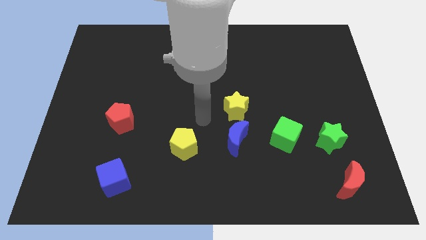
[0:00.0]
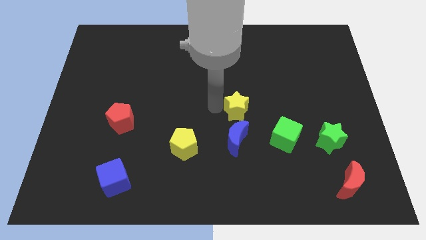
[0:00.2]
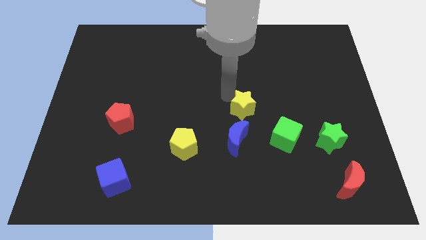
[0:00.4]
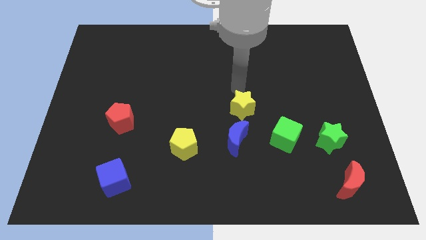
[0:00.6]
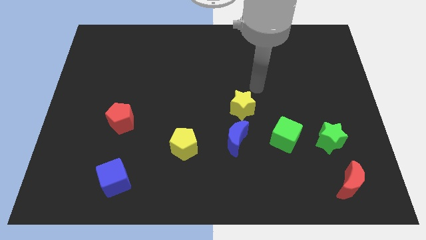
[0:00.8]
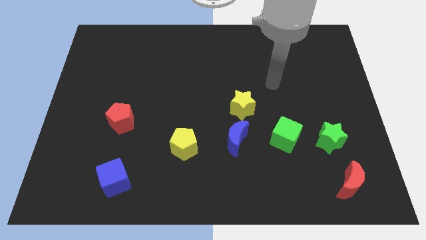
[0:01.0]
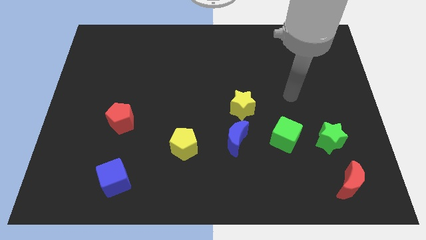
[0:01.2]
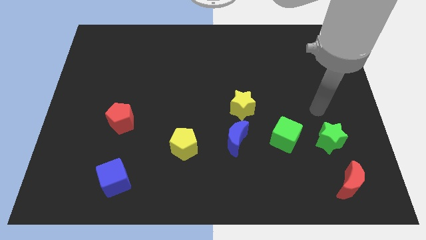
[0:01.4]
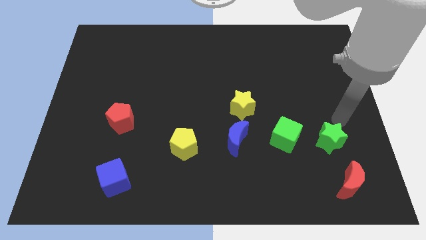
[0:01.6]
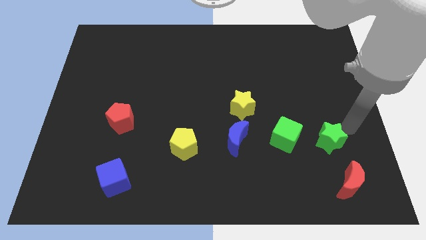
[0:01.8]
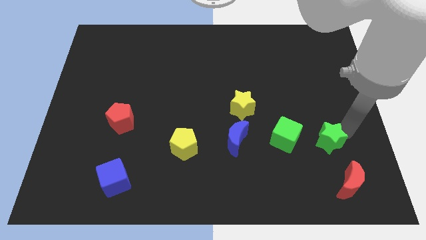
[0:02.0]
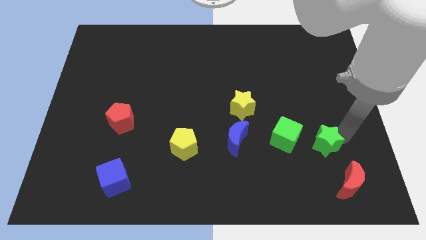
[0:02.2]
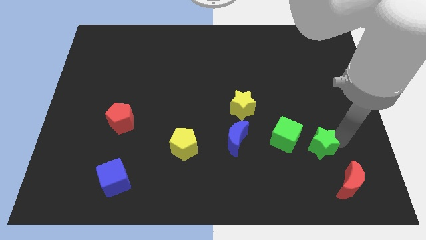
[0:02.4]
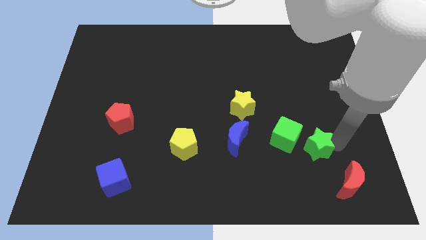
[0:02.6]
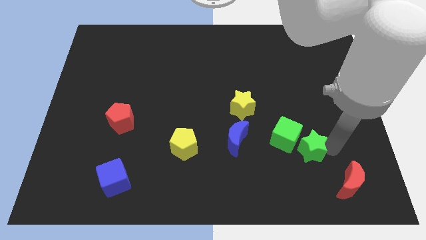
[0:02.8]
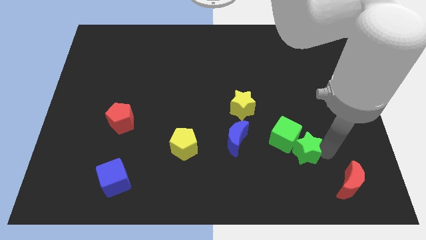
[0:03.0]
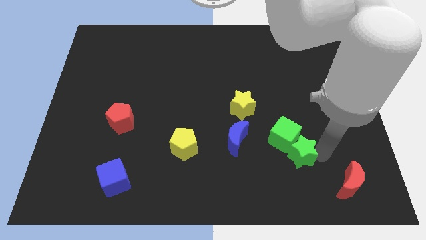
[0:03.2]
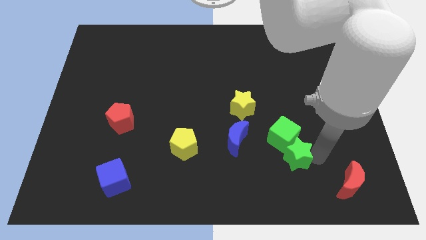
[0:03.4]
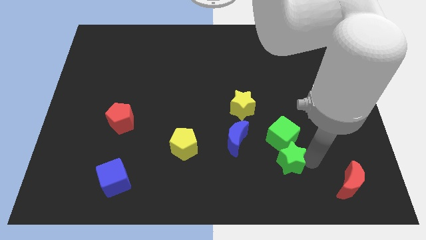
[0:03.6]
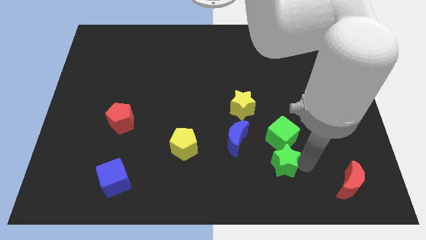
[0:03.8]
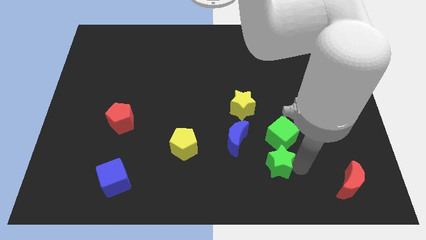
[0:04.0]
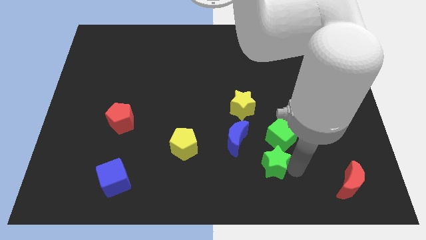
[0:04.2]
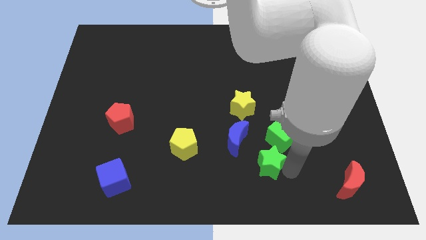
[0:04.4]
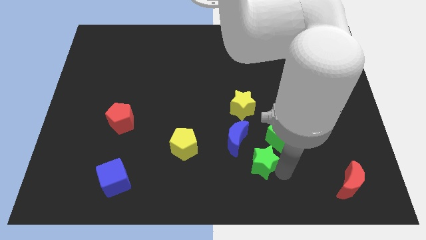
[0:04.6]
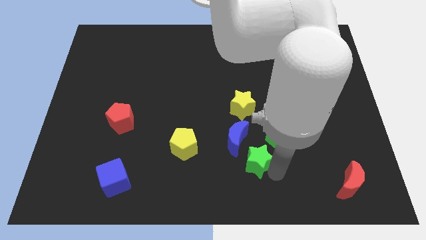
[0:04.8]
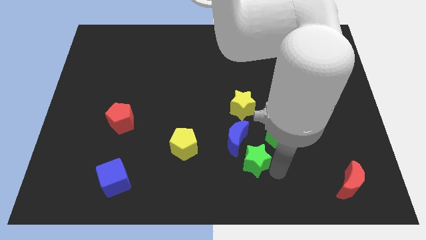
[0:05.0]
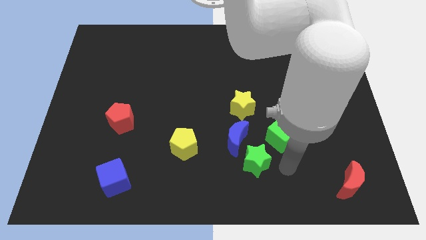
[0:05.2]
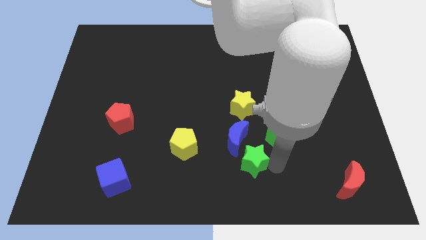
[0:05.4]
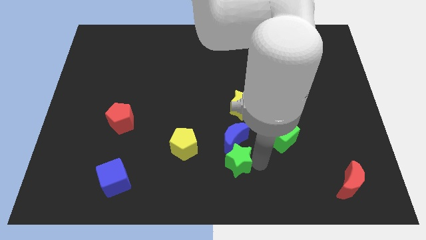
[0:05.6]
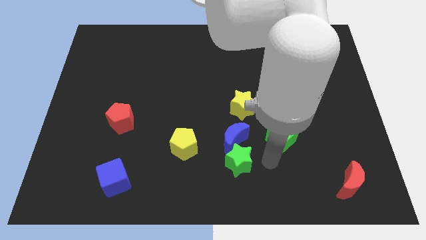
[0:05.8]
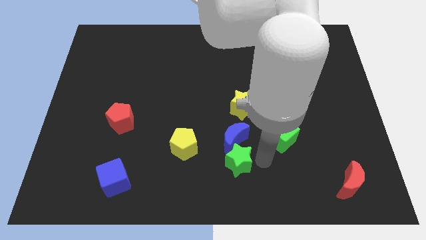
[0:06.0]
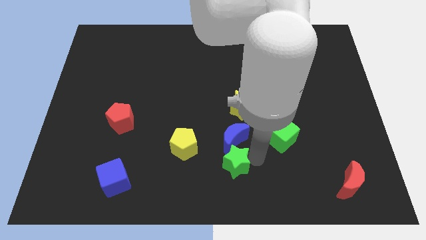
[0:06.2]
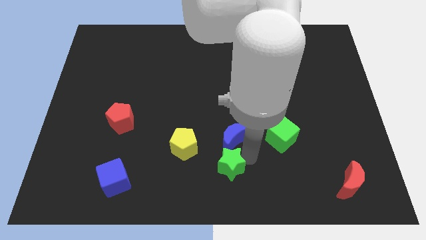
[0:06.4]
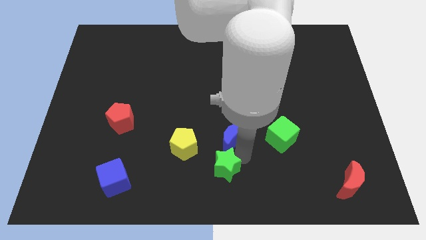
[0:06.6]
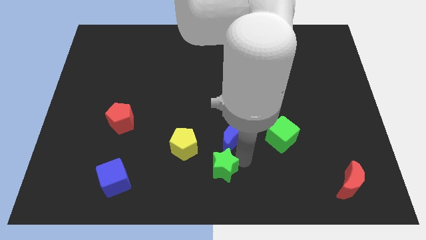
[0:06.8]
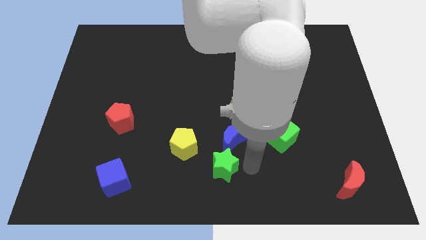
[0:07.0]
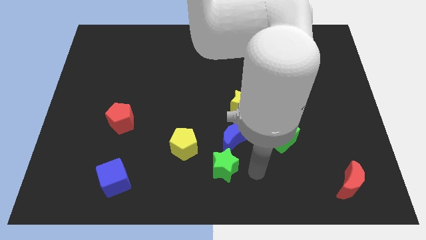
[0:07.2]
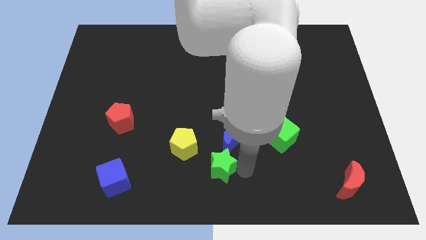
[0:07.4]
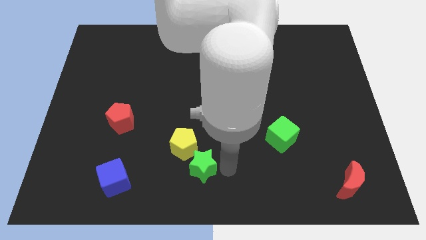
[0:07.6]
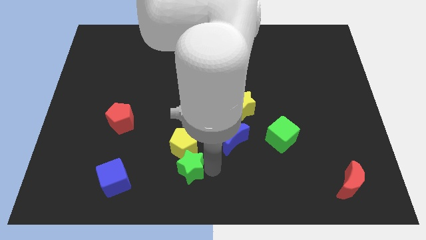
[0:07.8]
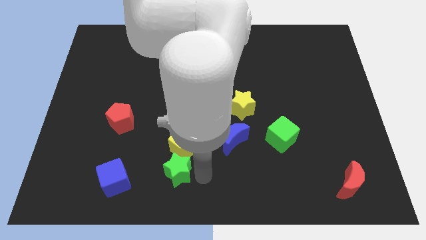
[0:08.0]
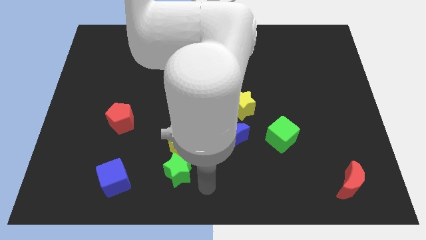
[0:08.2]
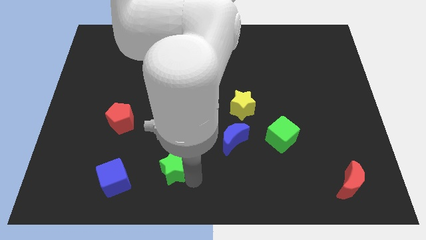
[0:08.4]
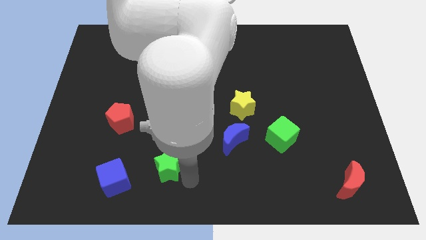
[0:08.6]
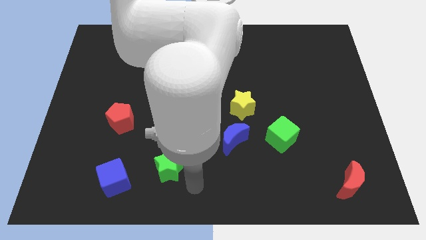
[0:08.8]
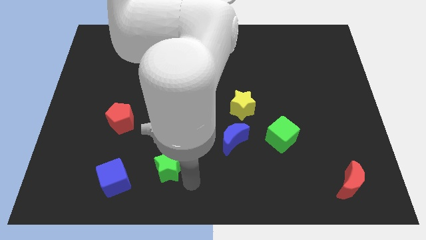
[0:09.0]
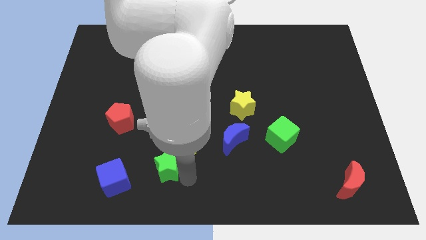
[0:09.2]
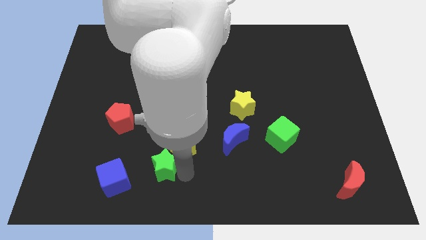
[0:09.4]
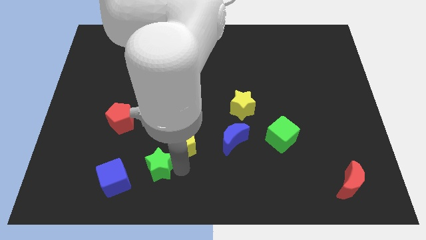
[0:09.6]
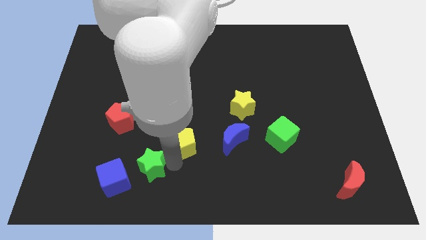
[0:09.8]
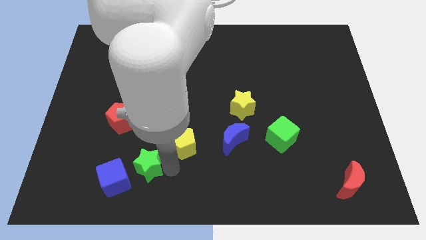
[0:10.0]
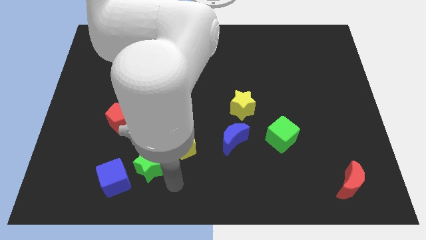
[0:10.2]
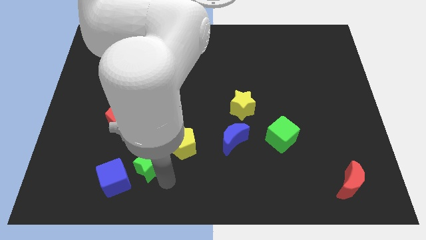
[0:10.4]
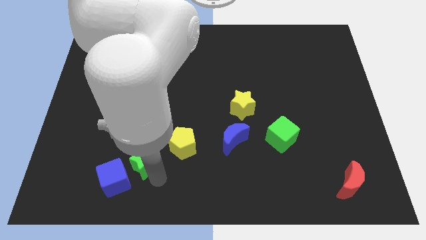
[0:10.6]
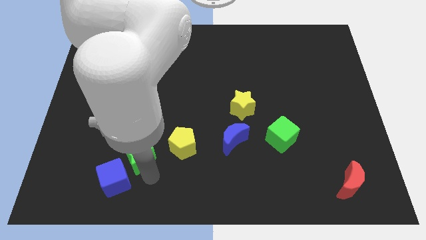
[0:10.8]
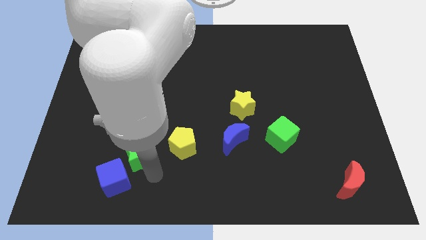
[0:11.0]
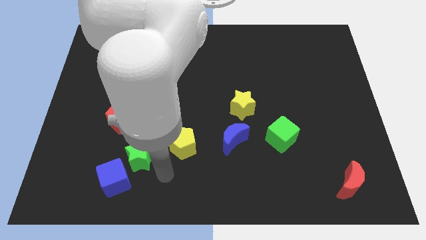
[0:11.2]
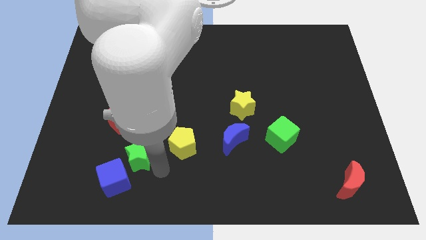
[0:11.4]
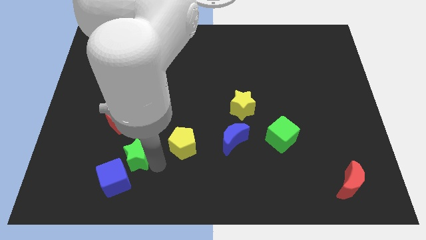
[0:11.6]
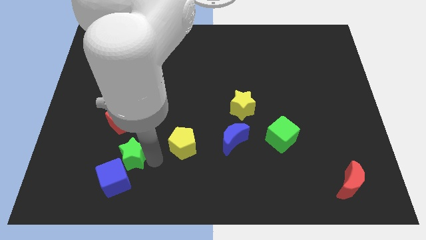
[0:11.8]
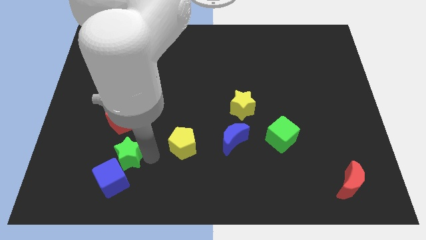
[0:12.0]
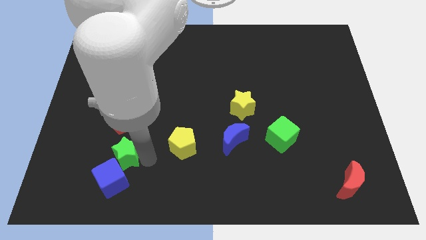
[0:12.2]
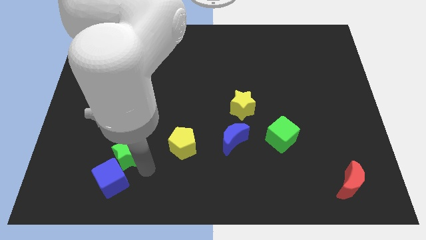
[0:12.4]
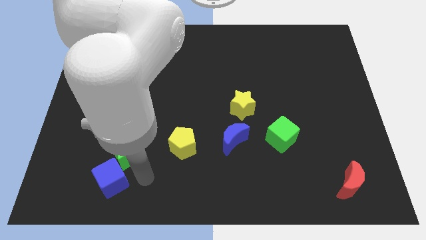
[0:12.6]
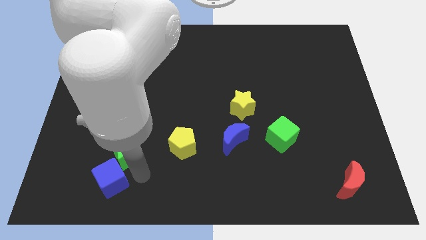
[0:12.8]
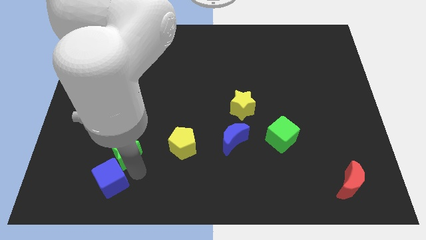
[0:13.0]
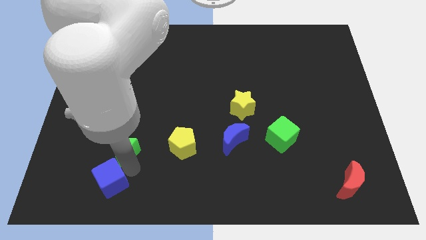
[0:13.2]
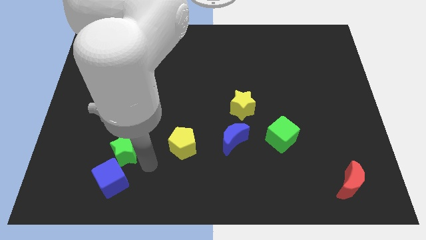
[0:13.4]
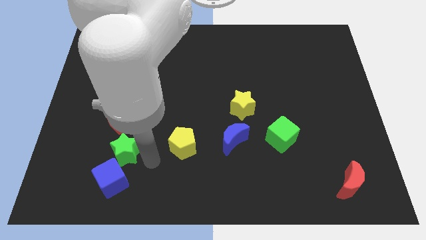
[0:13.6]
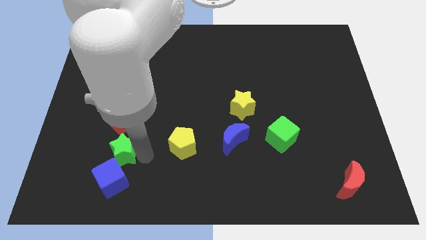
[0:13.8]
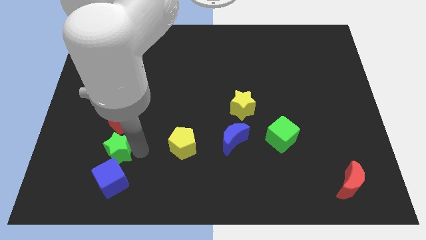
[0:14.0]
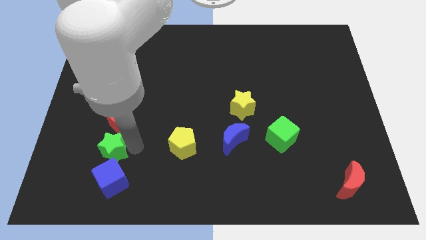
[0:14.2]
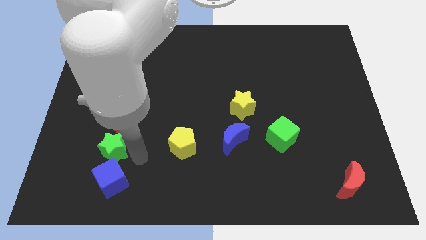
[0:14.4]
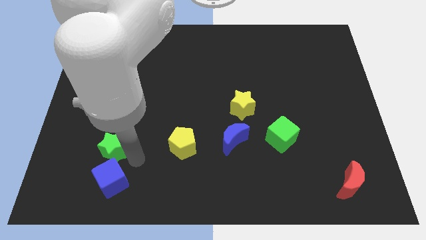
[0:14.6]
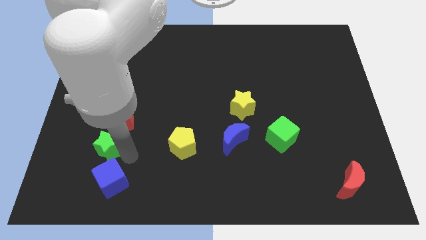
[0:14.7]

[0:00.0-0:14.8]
push the green star to the bottom left side of the red pentagon
